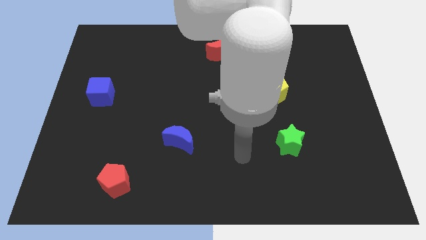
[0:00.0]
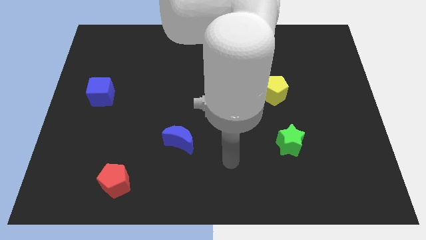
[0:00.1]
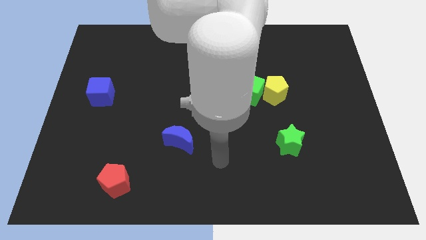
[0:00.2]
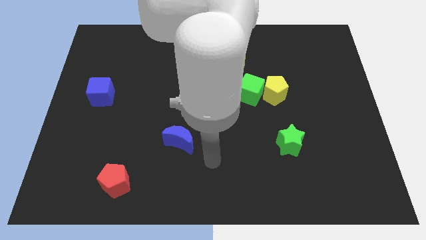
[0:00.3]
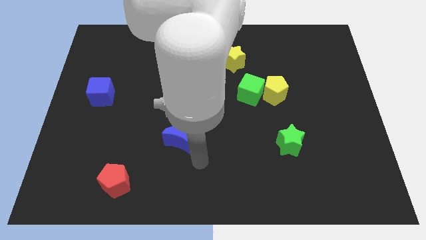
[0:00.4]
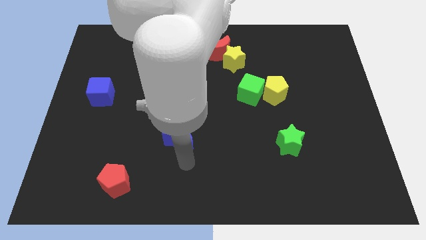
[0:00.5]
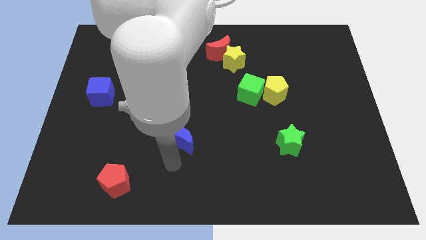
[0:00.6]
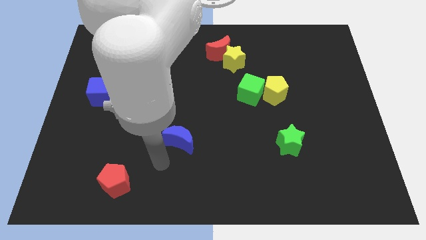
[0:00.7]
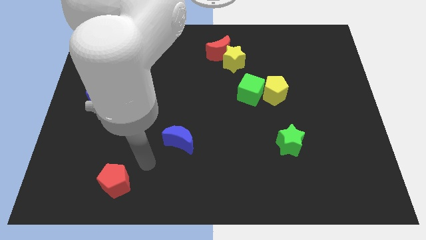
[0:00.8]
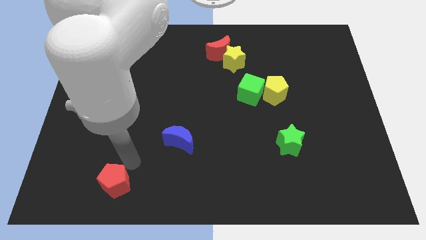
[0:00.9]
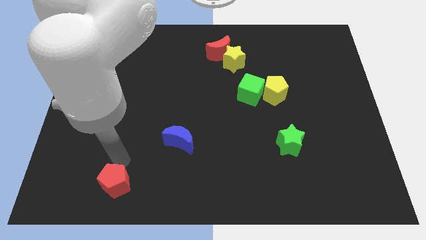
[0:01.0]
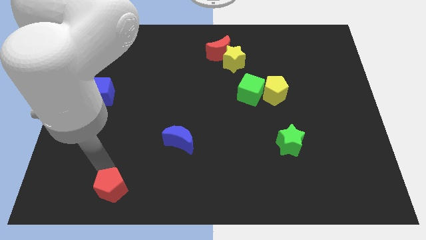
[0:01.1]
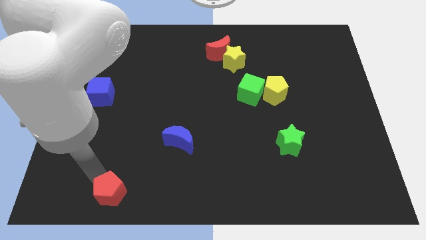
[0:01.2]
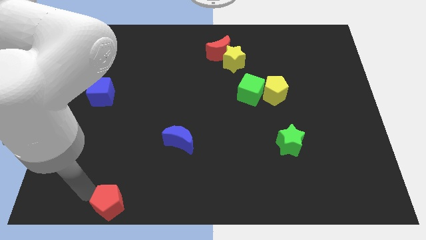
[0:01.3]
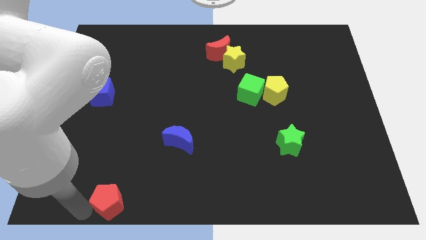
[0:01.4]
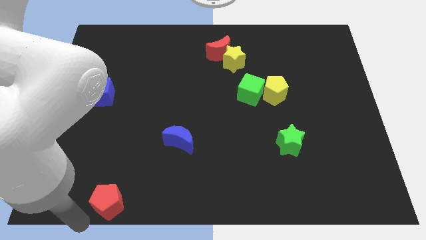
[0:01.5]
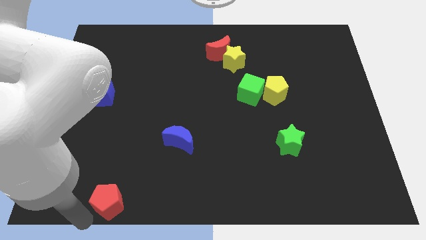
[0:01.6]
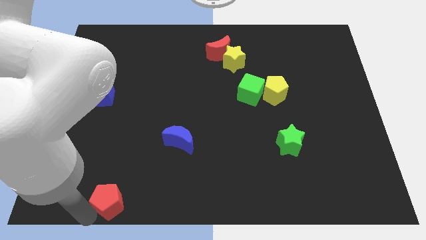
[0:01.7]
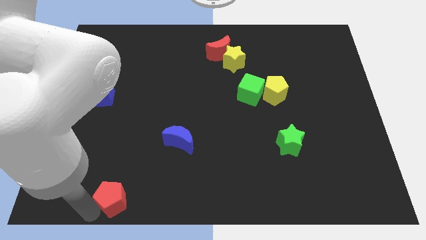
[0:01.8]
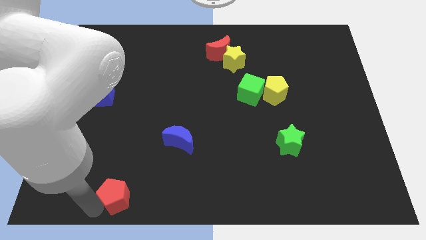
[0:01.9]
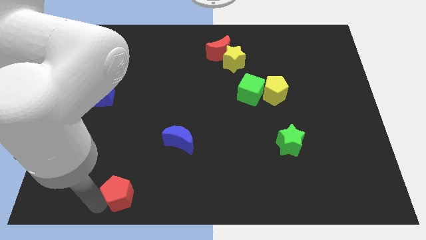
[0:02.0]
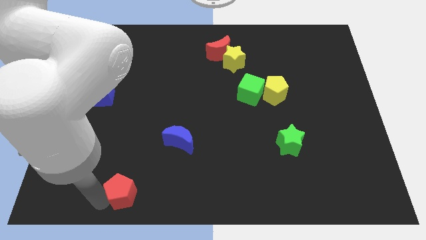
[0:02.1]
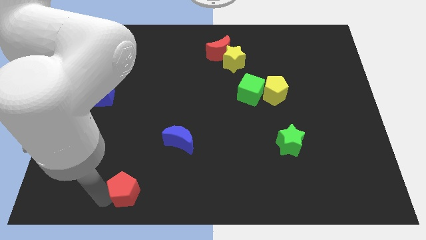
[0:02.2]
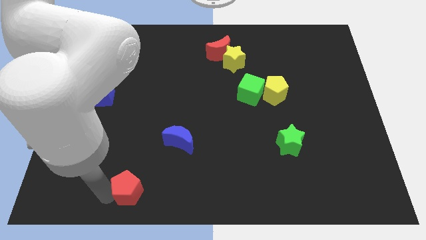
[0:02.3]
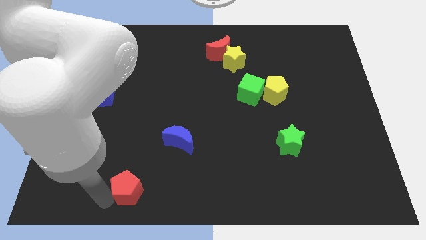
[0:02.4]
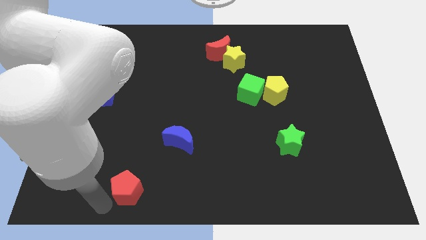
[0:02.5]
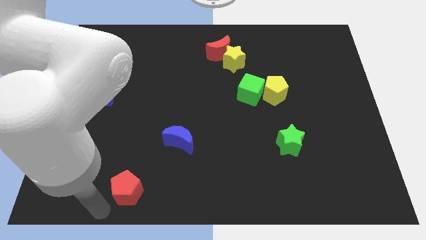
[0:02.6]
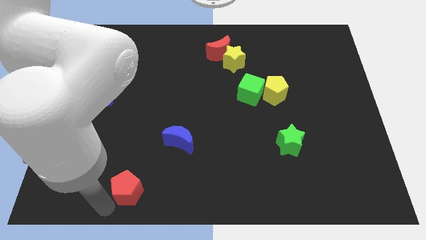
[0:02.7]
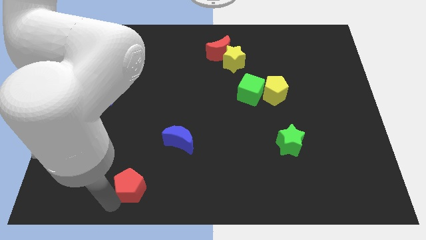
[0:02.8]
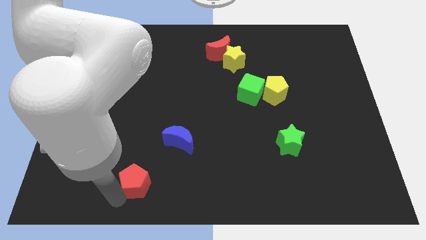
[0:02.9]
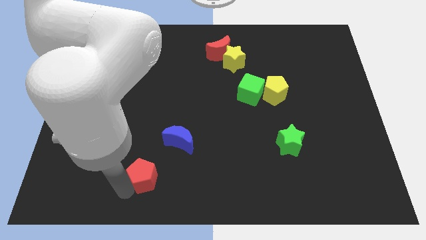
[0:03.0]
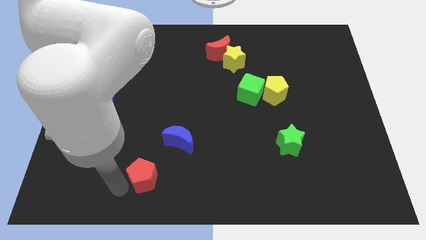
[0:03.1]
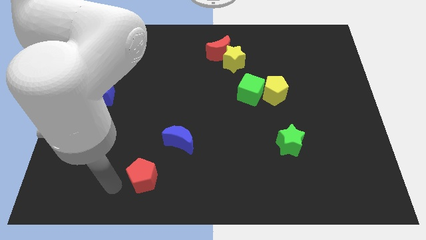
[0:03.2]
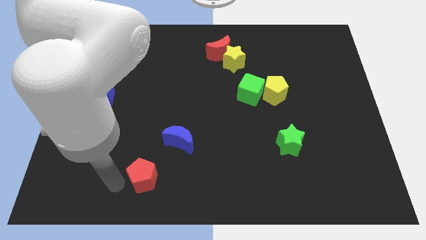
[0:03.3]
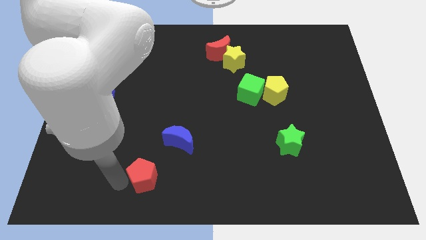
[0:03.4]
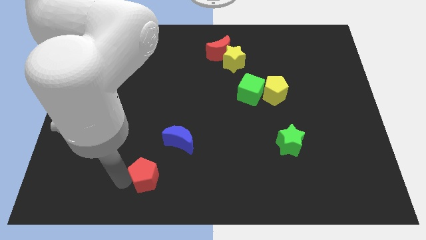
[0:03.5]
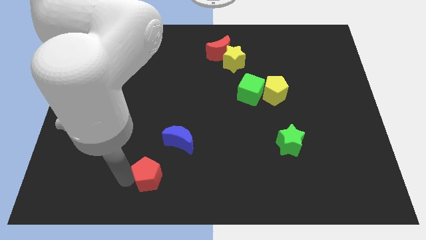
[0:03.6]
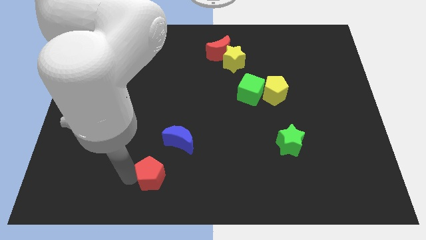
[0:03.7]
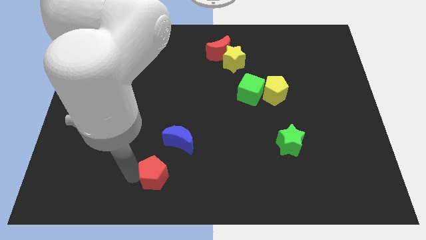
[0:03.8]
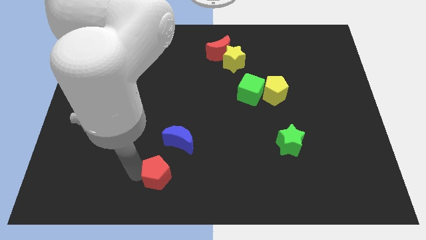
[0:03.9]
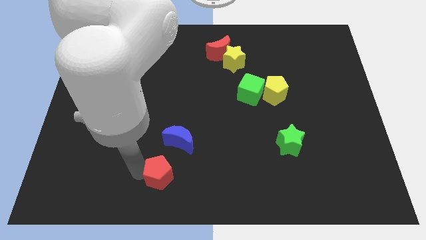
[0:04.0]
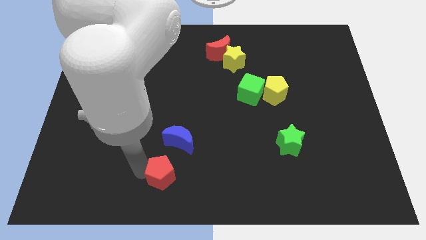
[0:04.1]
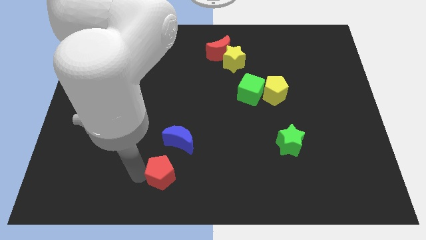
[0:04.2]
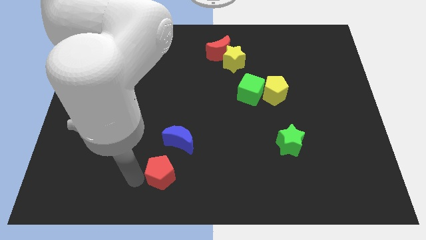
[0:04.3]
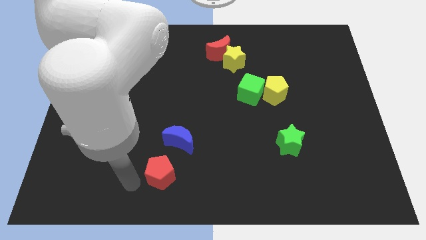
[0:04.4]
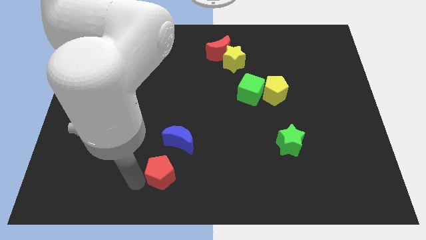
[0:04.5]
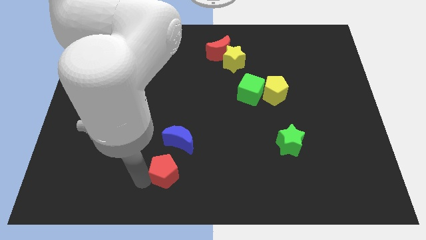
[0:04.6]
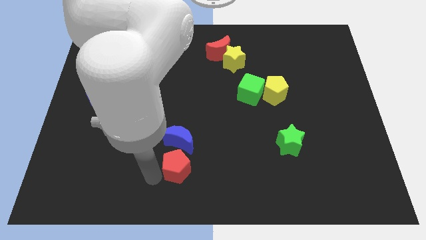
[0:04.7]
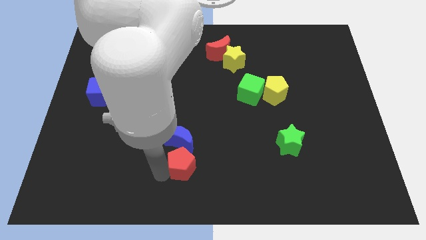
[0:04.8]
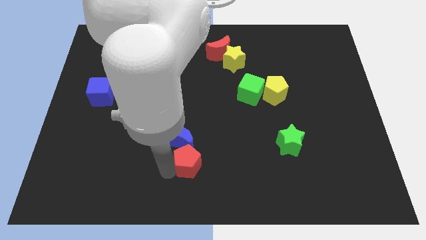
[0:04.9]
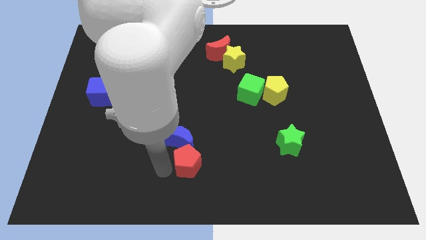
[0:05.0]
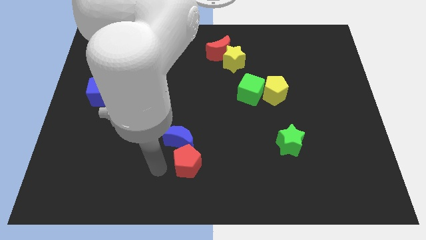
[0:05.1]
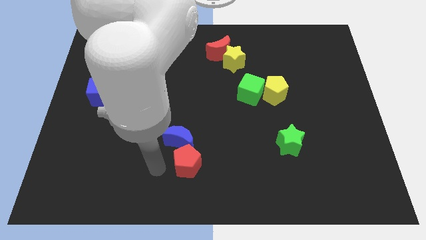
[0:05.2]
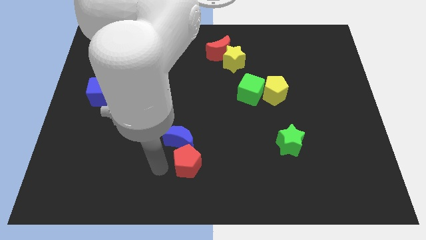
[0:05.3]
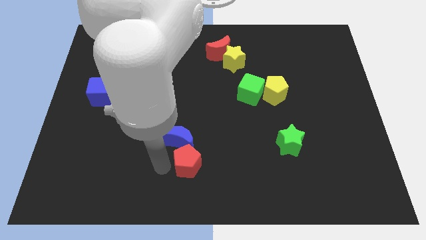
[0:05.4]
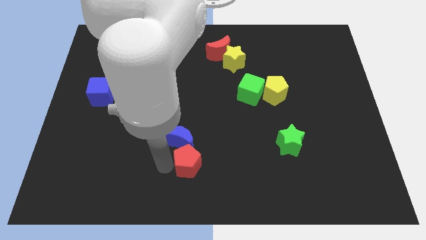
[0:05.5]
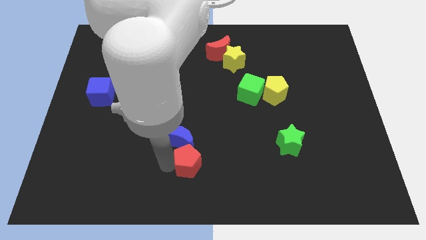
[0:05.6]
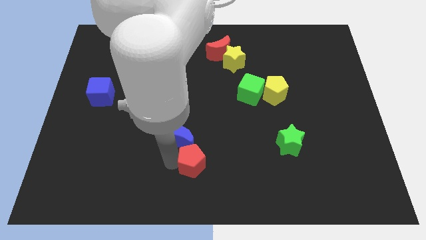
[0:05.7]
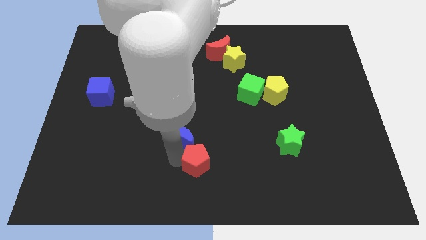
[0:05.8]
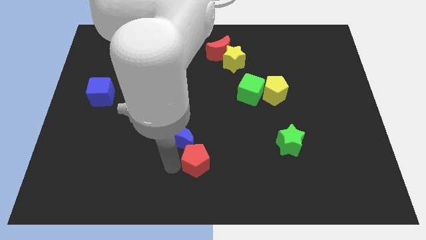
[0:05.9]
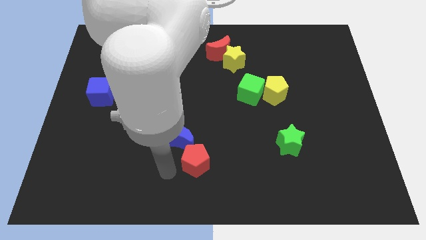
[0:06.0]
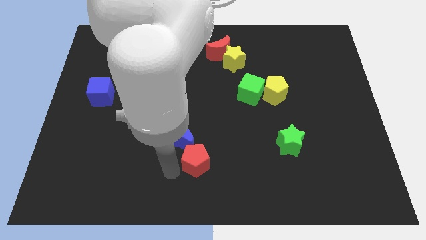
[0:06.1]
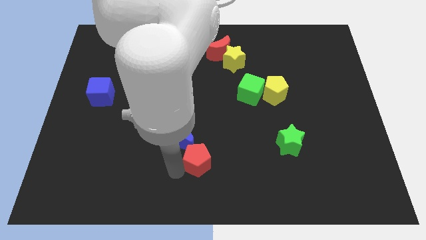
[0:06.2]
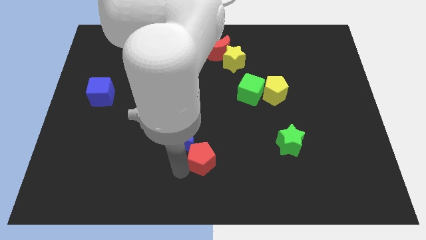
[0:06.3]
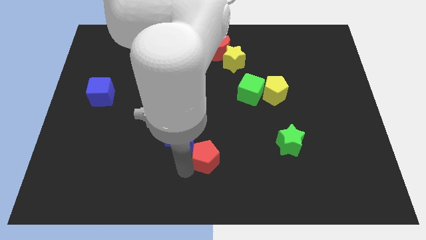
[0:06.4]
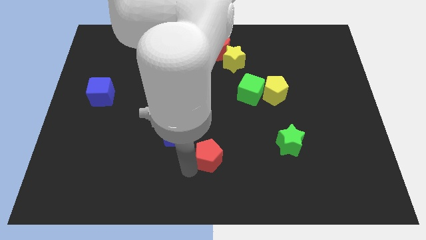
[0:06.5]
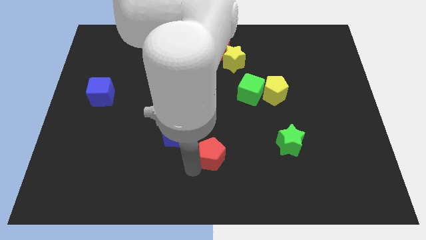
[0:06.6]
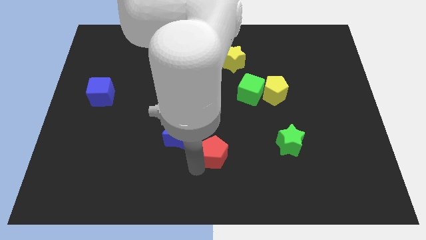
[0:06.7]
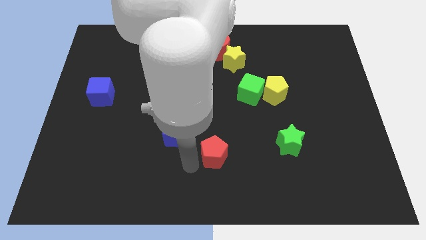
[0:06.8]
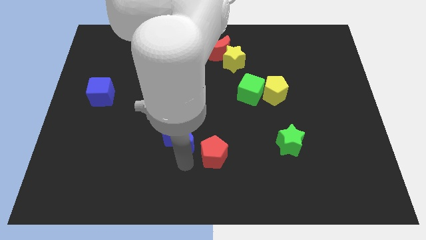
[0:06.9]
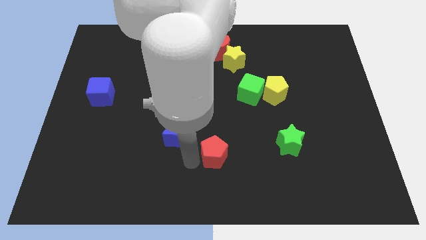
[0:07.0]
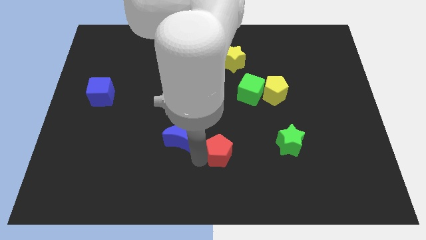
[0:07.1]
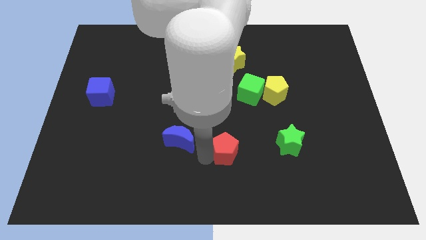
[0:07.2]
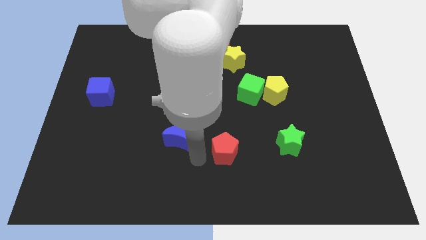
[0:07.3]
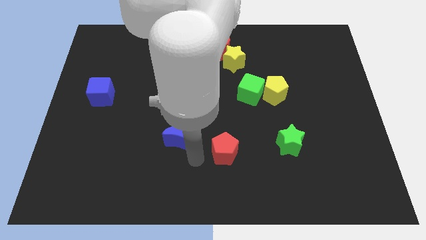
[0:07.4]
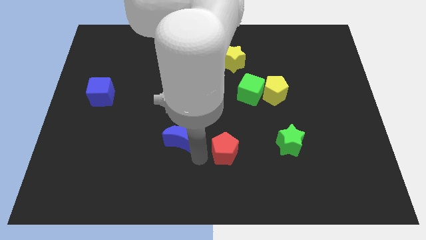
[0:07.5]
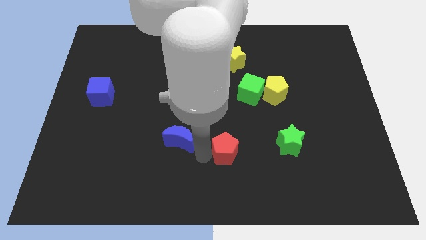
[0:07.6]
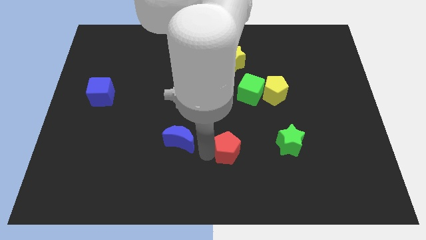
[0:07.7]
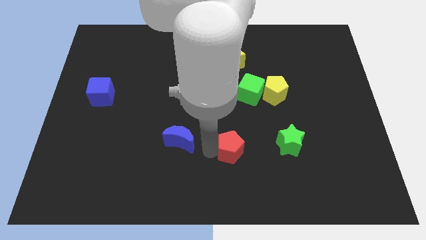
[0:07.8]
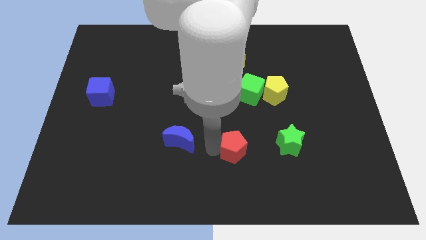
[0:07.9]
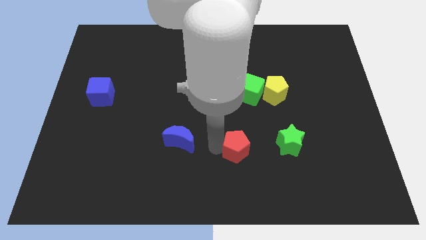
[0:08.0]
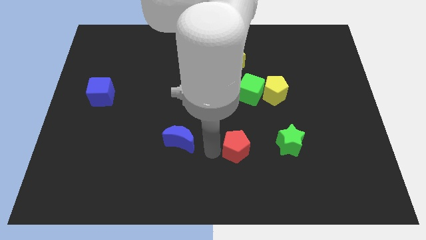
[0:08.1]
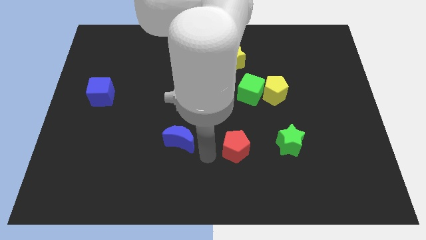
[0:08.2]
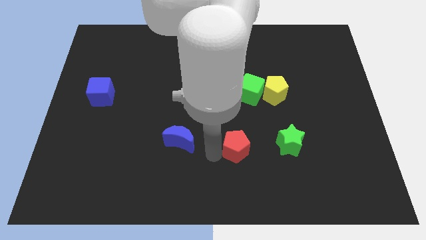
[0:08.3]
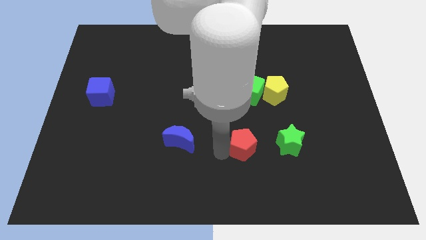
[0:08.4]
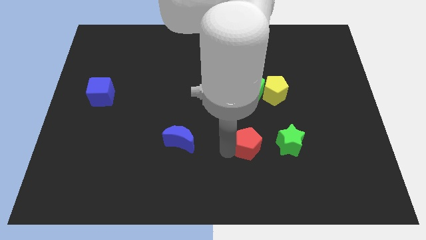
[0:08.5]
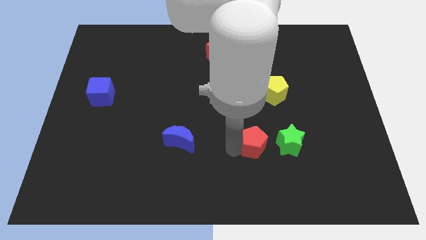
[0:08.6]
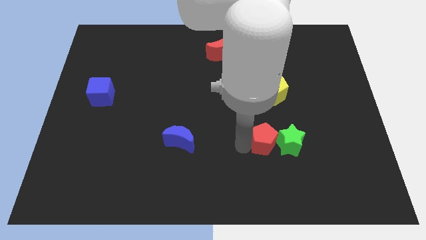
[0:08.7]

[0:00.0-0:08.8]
slide the red pentagon next to the green star
